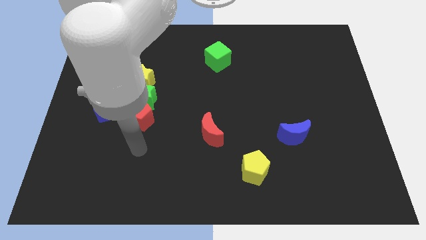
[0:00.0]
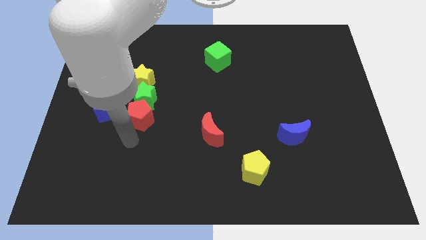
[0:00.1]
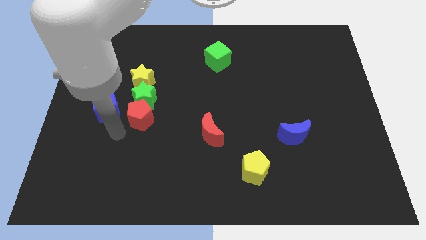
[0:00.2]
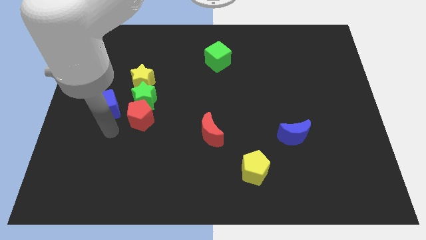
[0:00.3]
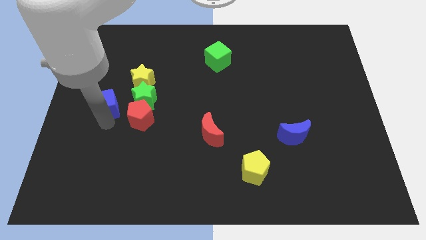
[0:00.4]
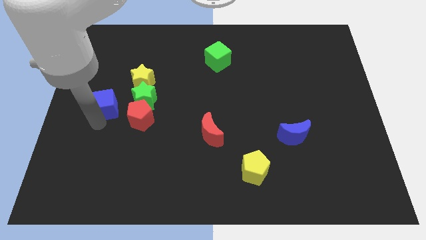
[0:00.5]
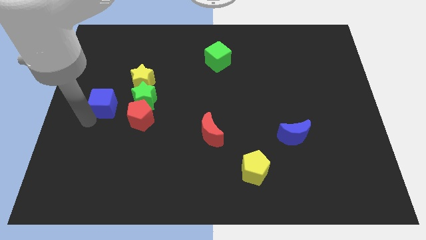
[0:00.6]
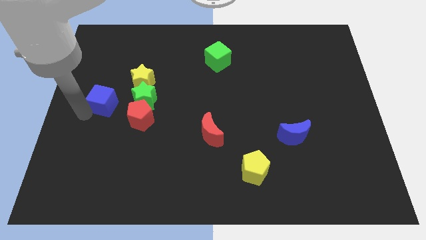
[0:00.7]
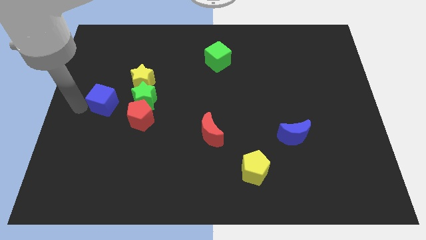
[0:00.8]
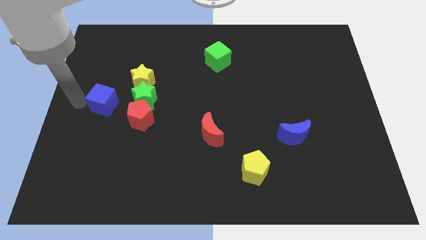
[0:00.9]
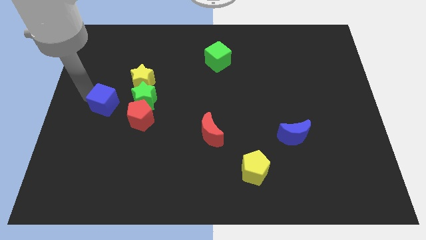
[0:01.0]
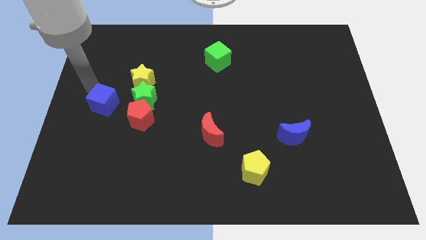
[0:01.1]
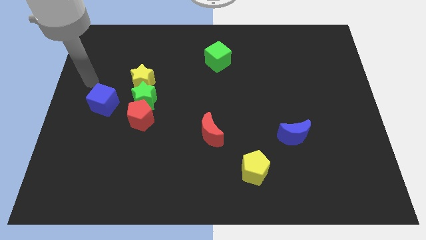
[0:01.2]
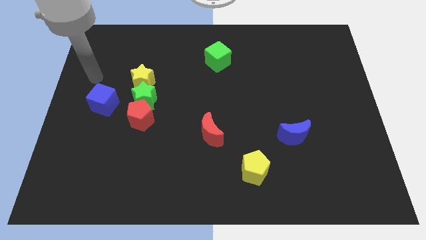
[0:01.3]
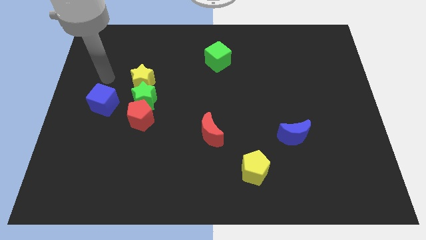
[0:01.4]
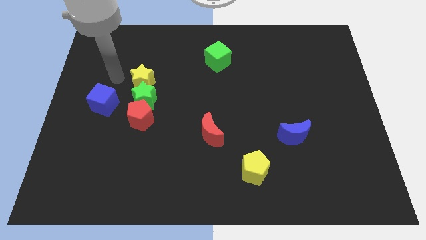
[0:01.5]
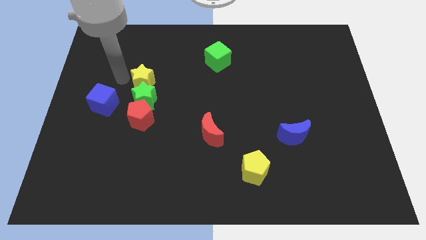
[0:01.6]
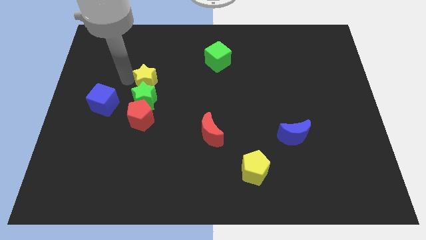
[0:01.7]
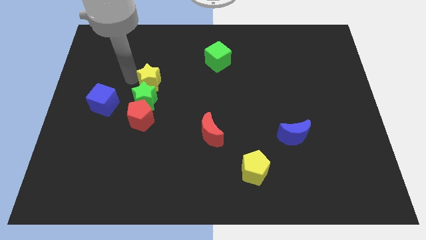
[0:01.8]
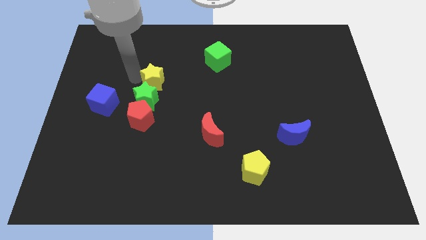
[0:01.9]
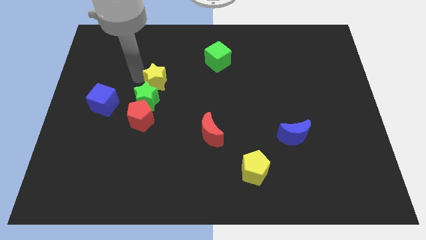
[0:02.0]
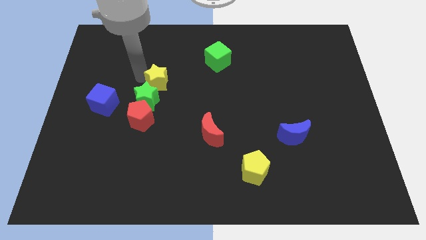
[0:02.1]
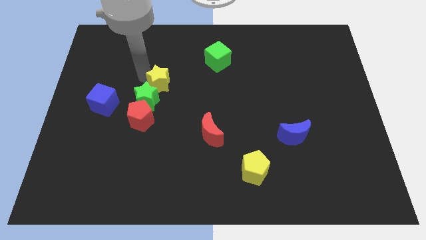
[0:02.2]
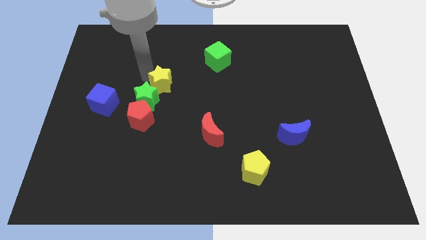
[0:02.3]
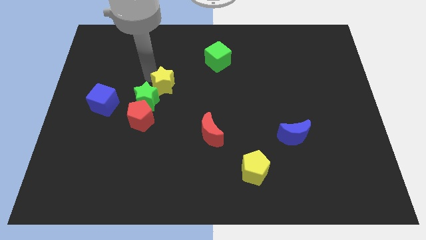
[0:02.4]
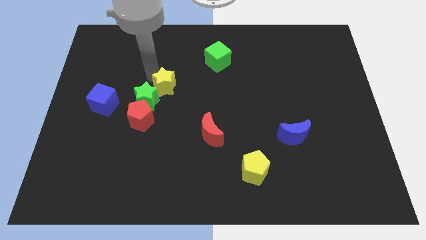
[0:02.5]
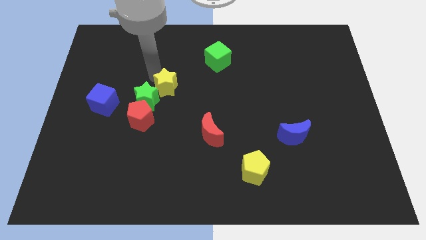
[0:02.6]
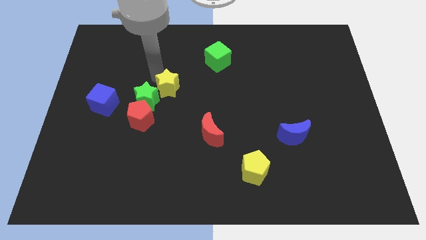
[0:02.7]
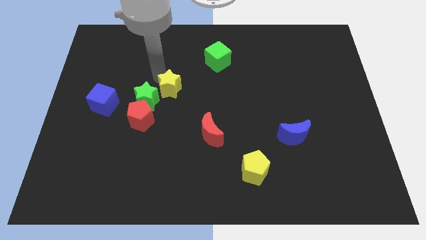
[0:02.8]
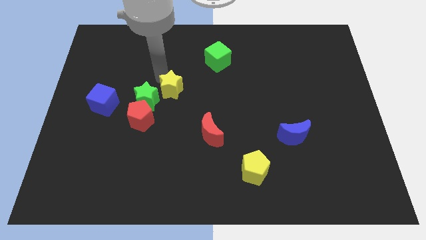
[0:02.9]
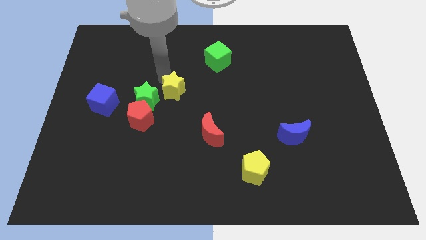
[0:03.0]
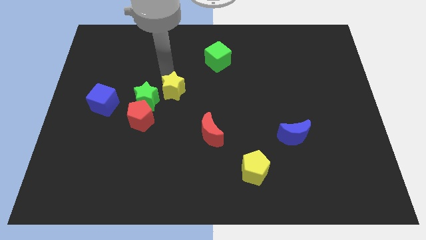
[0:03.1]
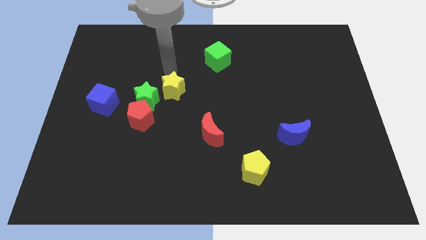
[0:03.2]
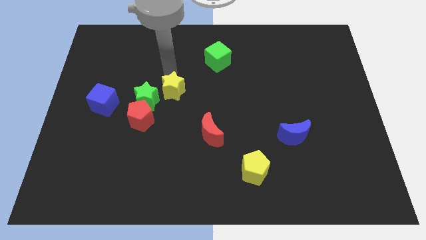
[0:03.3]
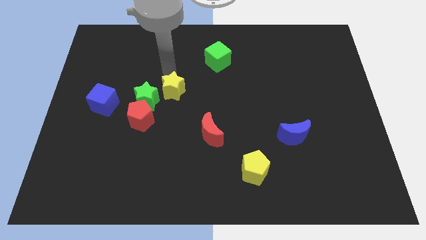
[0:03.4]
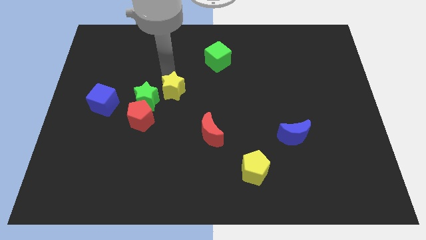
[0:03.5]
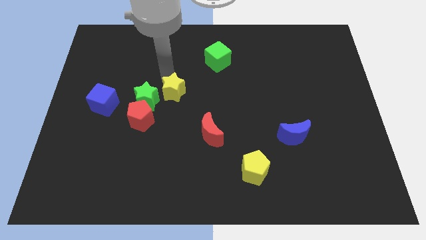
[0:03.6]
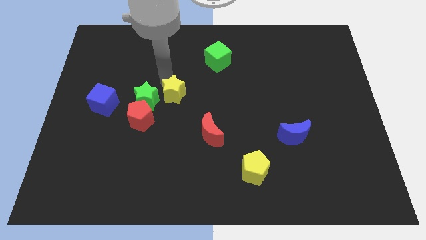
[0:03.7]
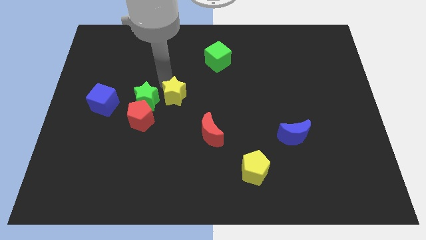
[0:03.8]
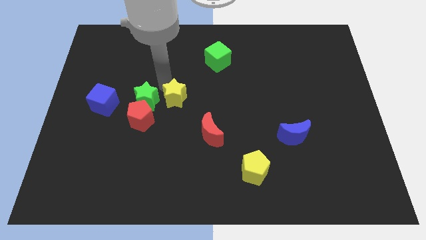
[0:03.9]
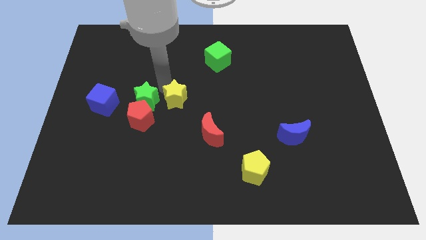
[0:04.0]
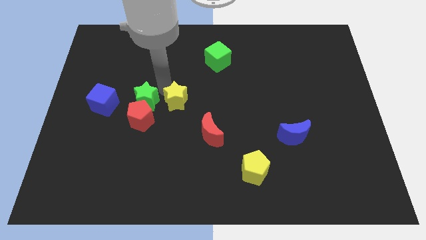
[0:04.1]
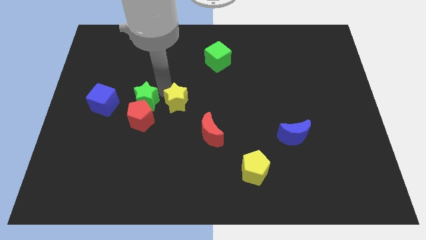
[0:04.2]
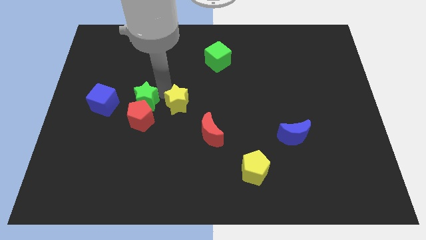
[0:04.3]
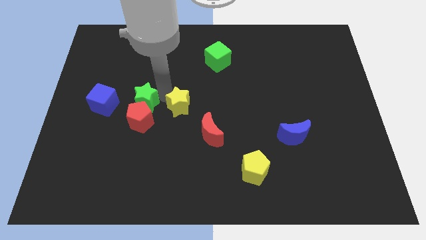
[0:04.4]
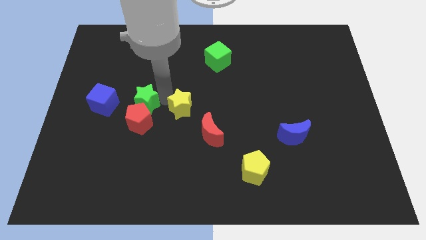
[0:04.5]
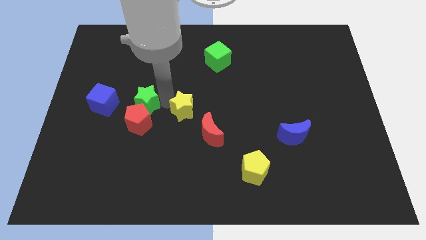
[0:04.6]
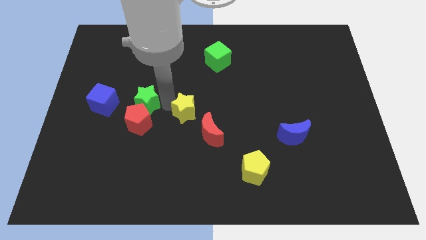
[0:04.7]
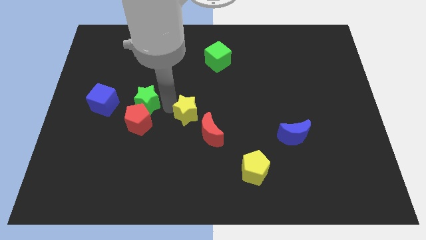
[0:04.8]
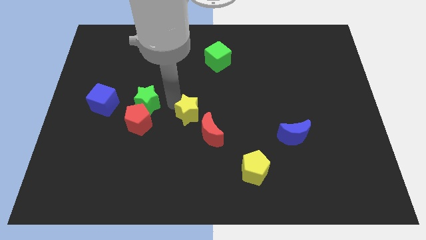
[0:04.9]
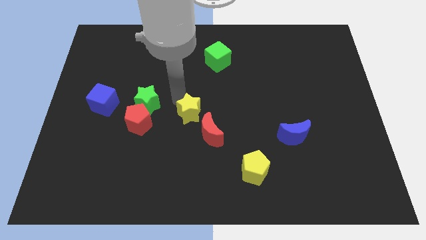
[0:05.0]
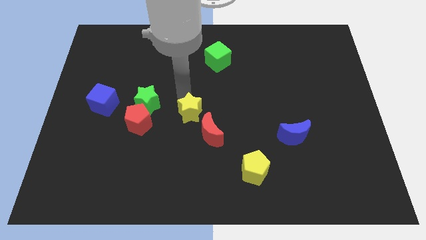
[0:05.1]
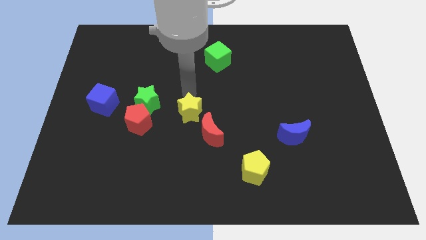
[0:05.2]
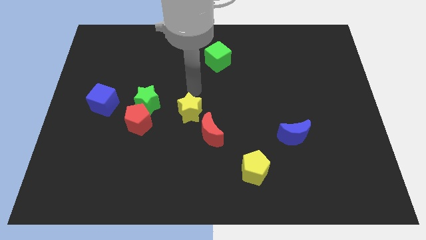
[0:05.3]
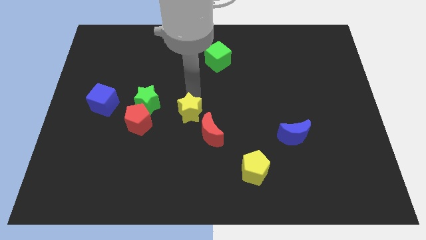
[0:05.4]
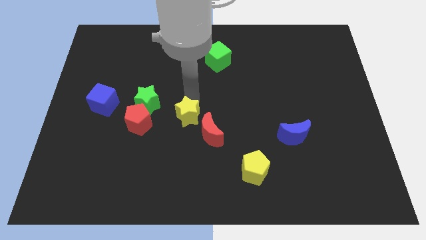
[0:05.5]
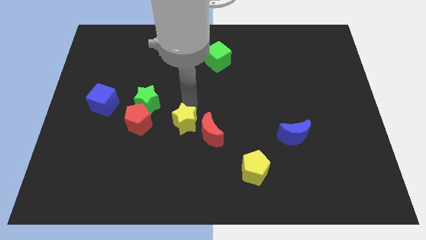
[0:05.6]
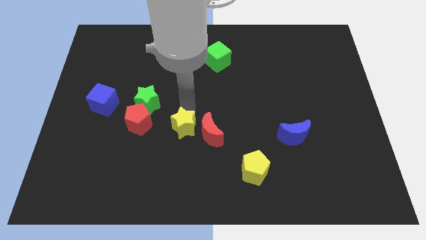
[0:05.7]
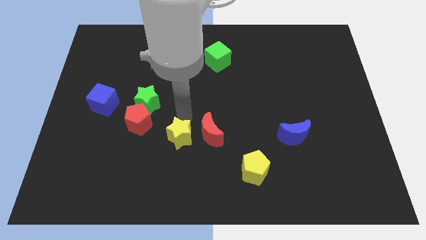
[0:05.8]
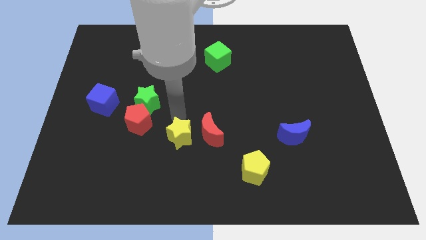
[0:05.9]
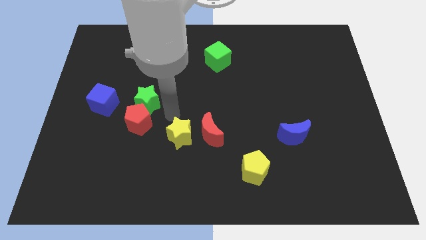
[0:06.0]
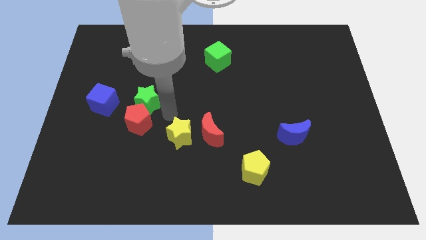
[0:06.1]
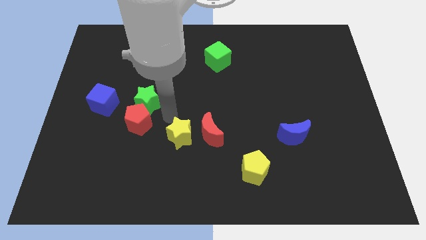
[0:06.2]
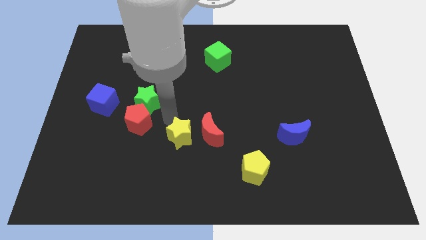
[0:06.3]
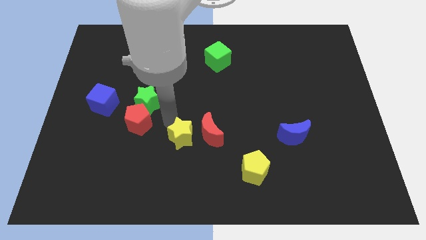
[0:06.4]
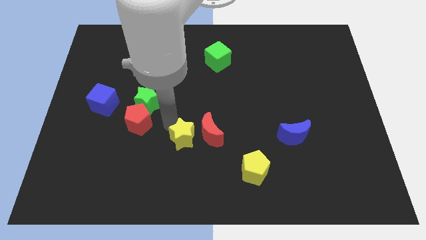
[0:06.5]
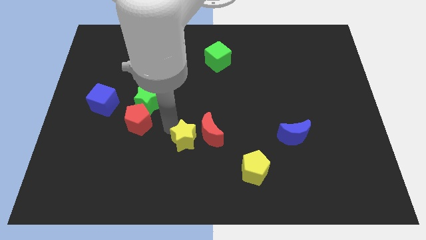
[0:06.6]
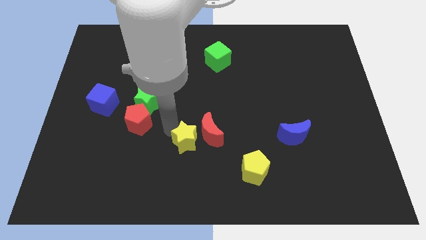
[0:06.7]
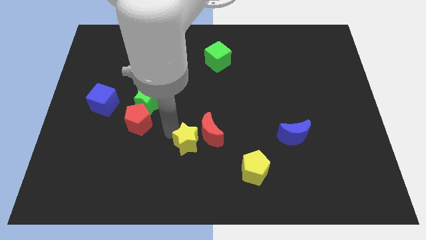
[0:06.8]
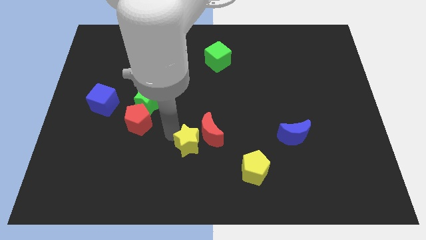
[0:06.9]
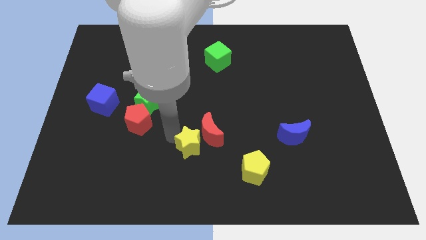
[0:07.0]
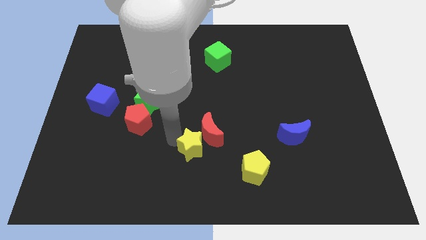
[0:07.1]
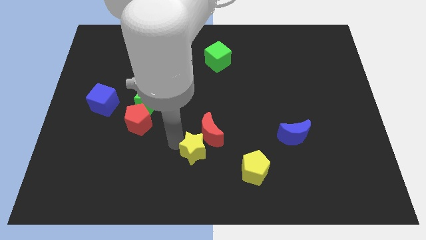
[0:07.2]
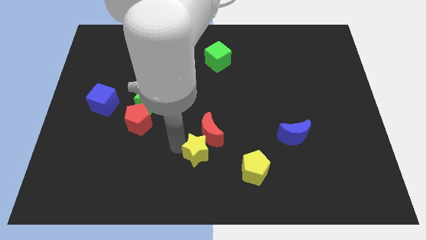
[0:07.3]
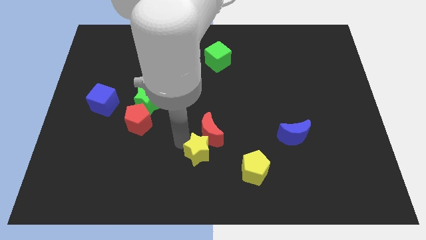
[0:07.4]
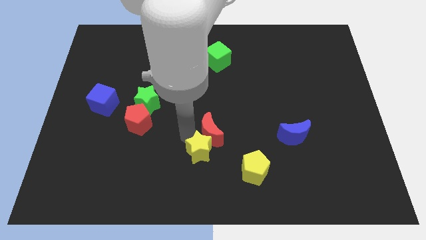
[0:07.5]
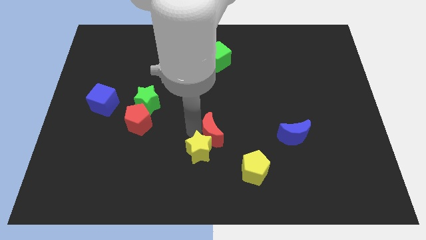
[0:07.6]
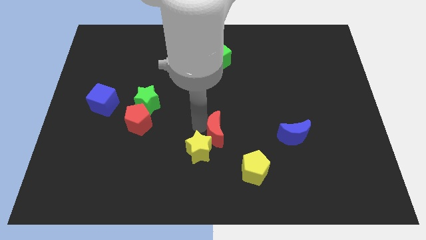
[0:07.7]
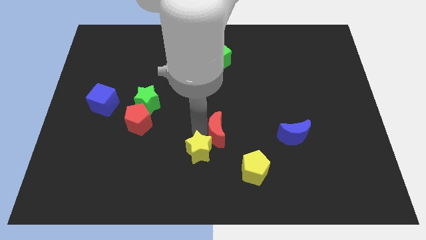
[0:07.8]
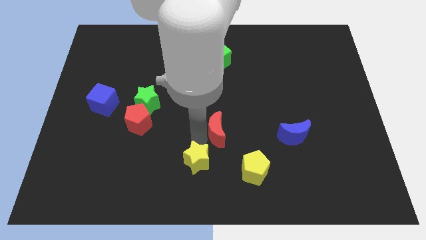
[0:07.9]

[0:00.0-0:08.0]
move the yellow star to the bottom

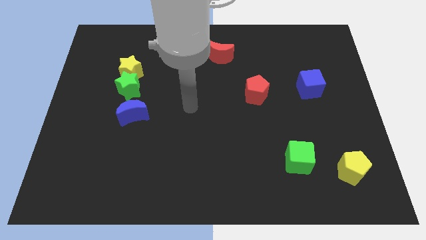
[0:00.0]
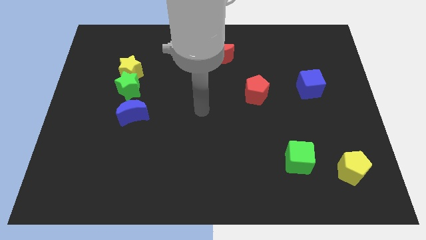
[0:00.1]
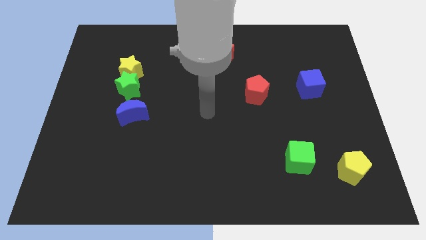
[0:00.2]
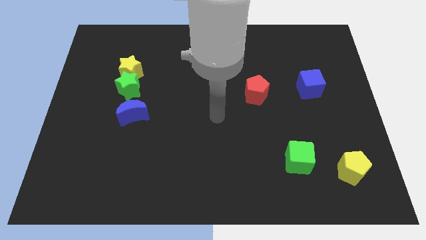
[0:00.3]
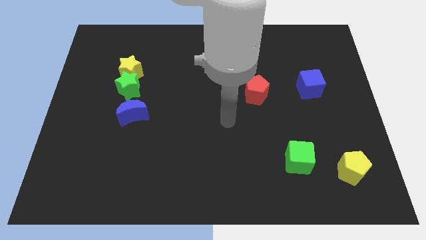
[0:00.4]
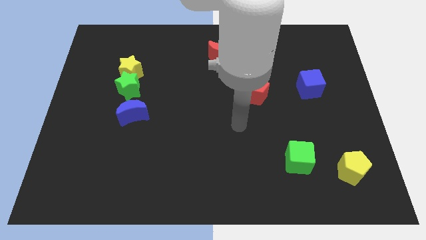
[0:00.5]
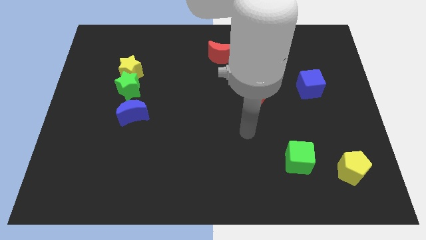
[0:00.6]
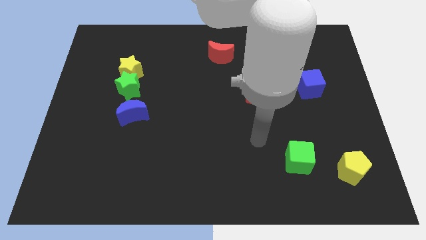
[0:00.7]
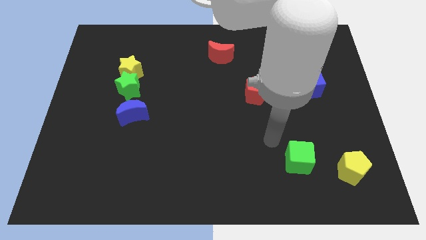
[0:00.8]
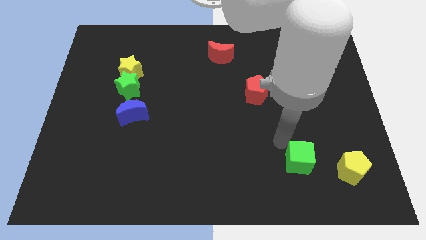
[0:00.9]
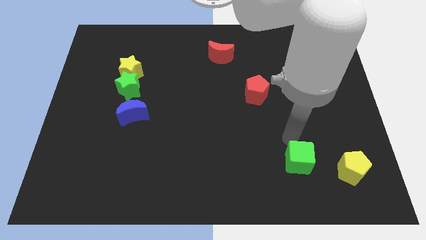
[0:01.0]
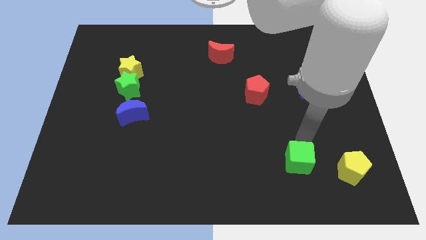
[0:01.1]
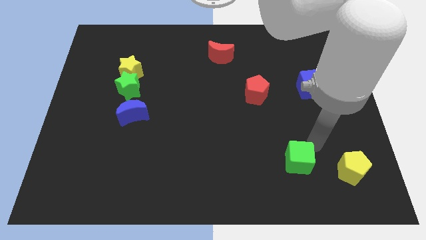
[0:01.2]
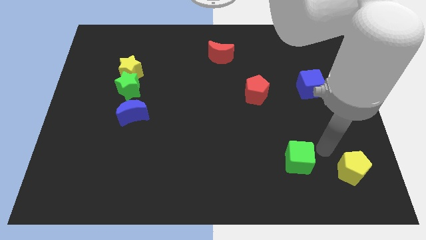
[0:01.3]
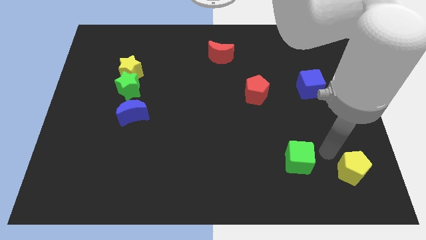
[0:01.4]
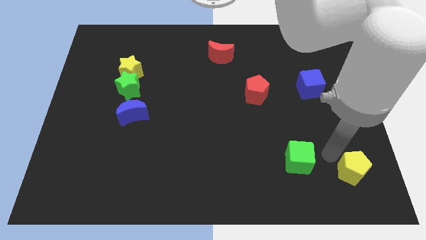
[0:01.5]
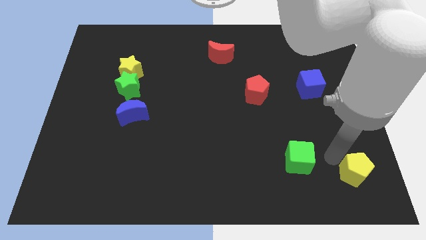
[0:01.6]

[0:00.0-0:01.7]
push the yellow pentagon to the bottom right
